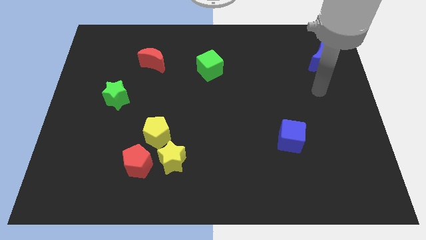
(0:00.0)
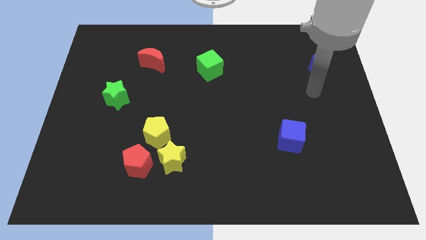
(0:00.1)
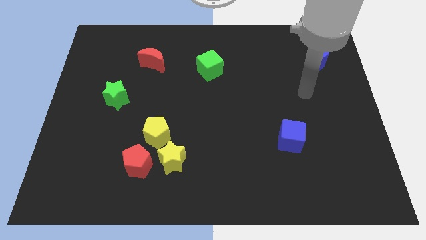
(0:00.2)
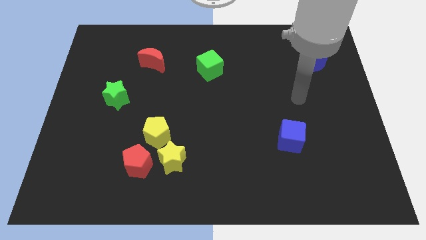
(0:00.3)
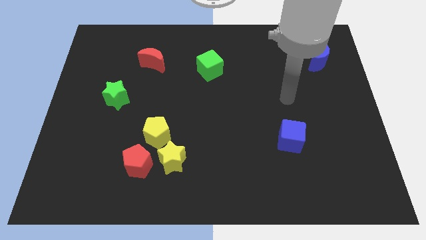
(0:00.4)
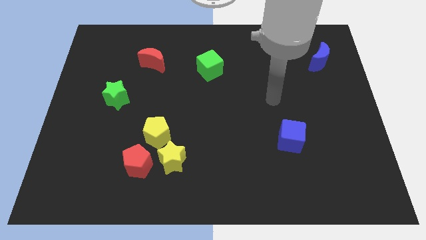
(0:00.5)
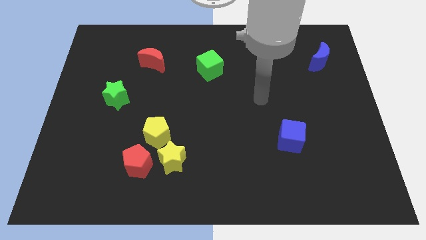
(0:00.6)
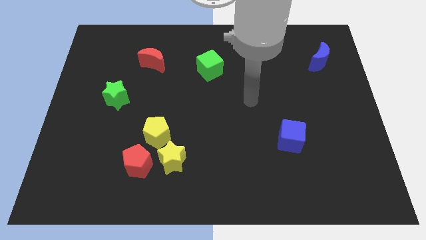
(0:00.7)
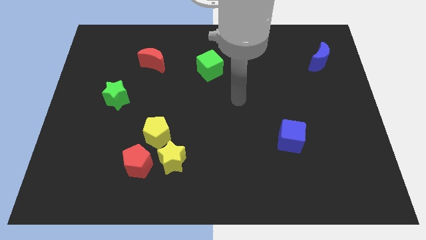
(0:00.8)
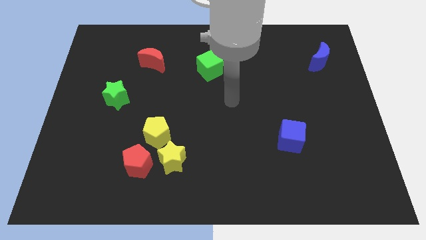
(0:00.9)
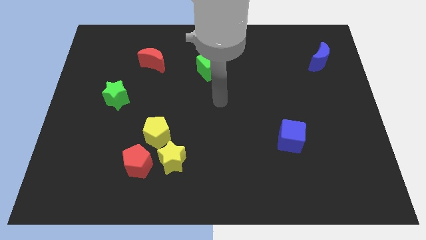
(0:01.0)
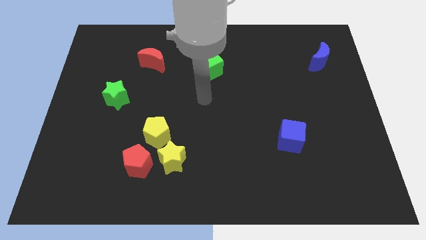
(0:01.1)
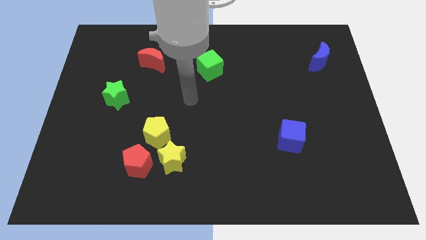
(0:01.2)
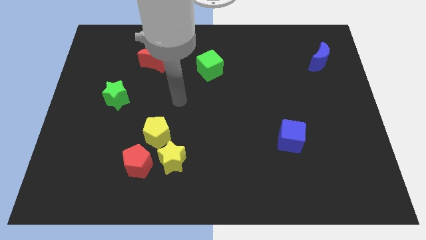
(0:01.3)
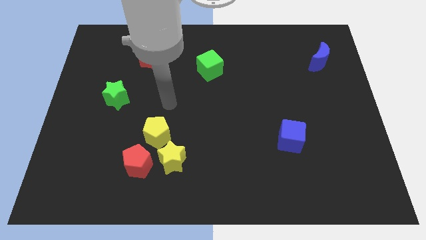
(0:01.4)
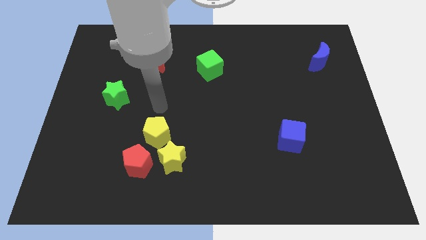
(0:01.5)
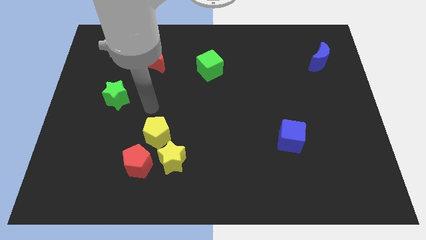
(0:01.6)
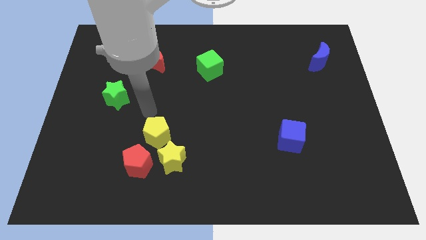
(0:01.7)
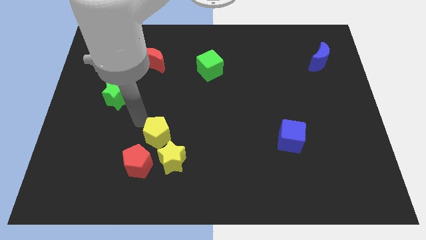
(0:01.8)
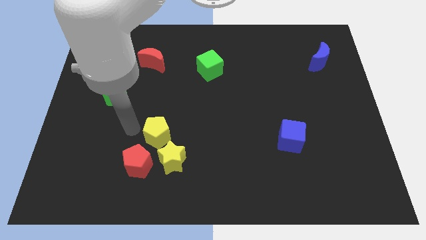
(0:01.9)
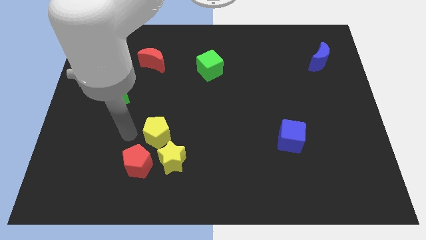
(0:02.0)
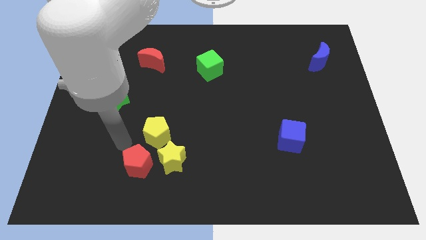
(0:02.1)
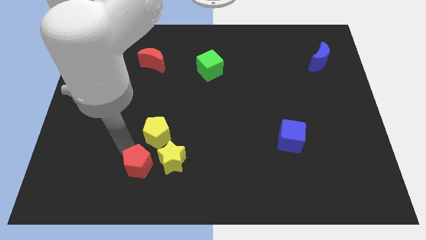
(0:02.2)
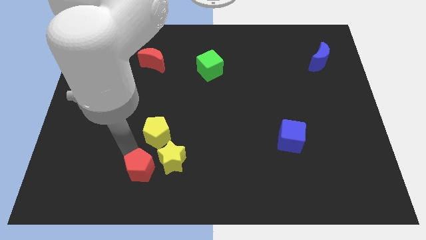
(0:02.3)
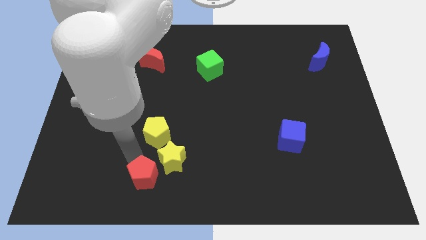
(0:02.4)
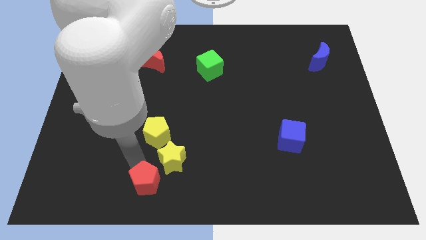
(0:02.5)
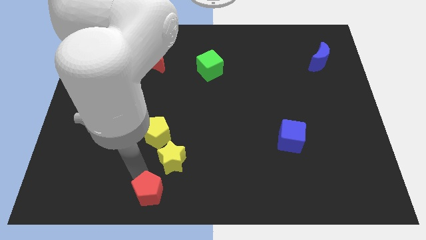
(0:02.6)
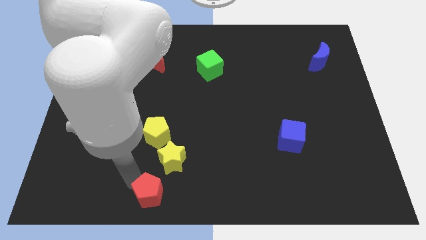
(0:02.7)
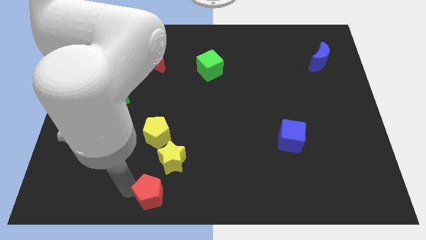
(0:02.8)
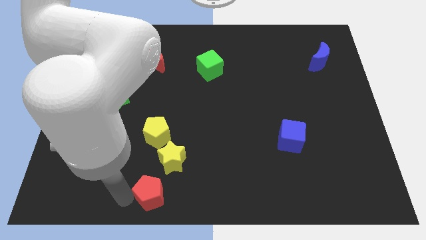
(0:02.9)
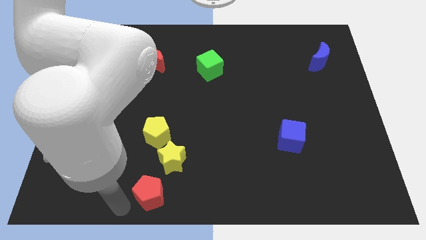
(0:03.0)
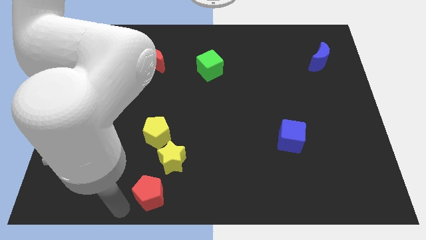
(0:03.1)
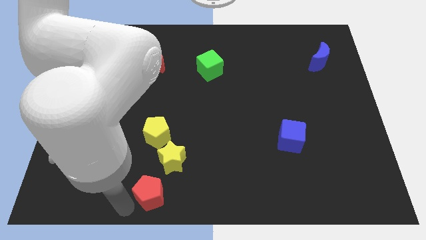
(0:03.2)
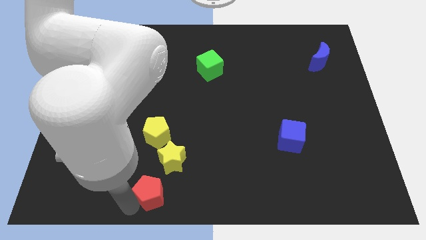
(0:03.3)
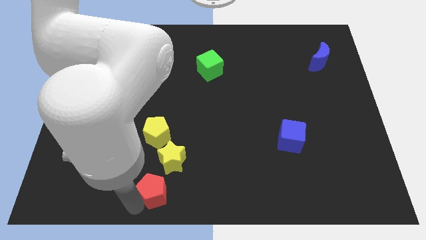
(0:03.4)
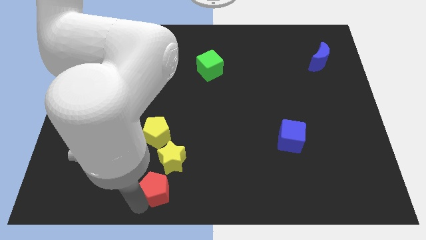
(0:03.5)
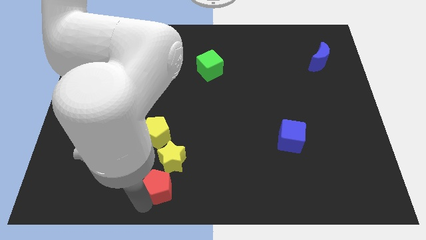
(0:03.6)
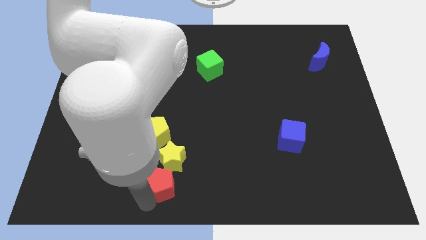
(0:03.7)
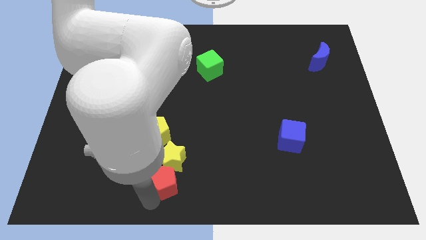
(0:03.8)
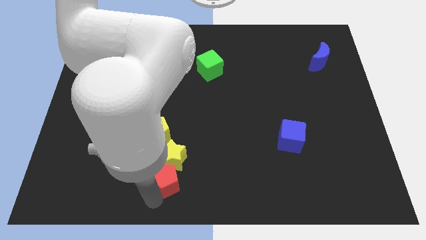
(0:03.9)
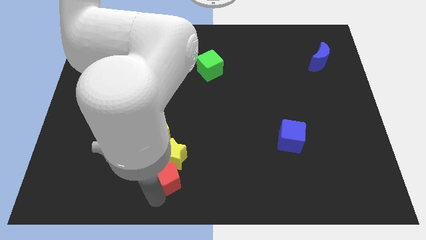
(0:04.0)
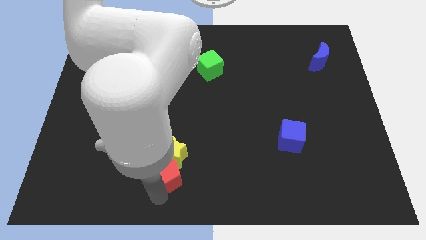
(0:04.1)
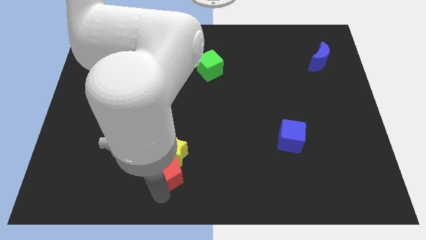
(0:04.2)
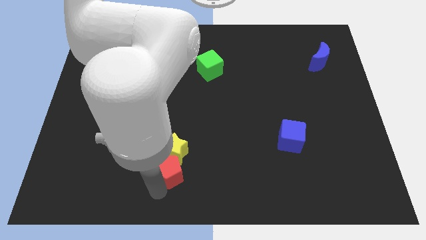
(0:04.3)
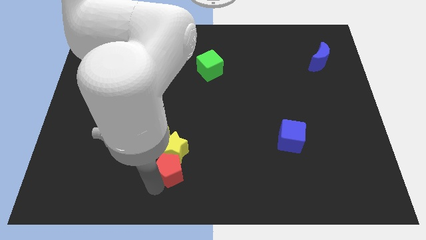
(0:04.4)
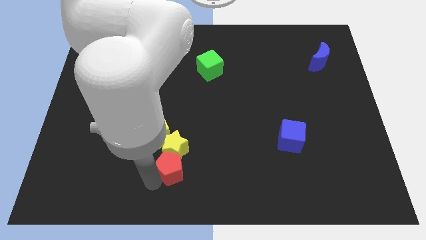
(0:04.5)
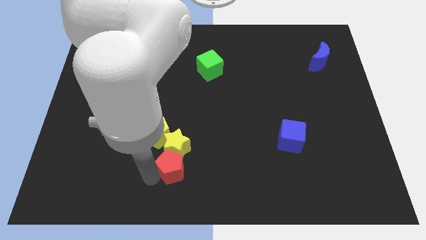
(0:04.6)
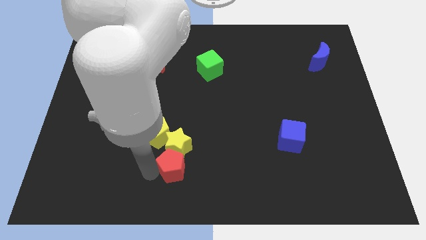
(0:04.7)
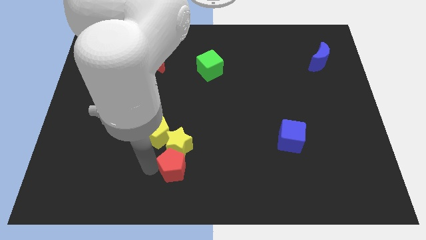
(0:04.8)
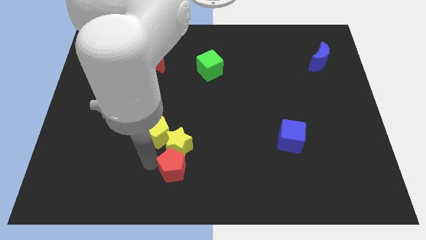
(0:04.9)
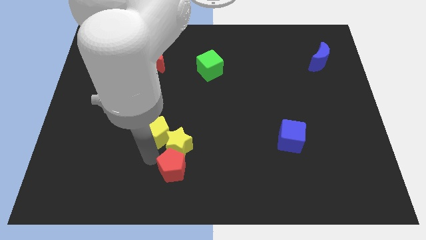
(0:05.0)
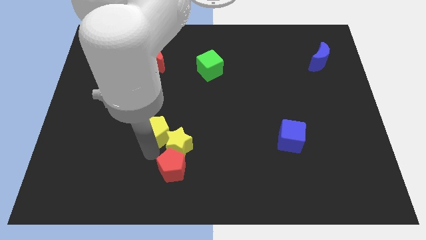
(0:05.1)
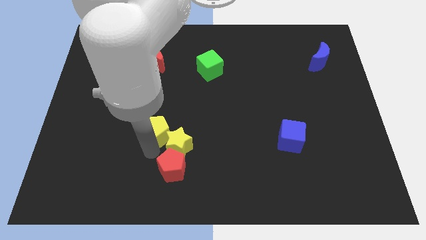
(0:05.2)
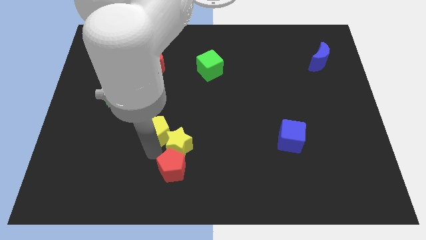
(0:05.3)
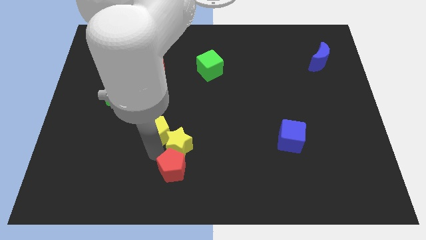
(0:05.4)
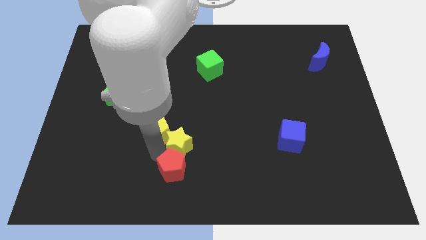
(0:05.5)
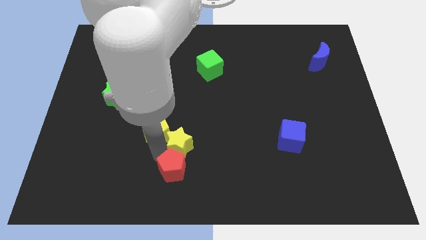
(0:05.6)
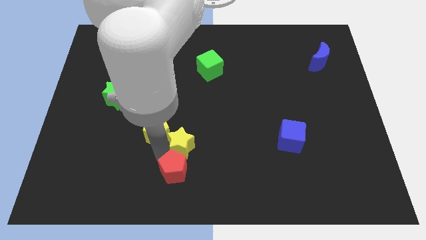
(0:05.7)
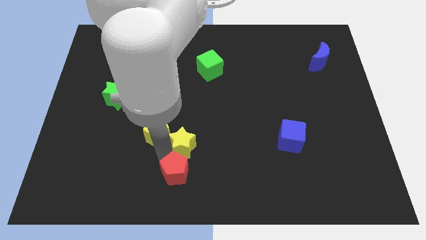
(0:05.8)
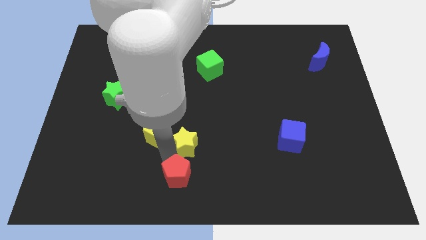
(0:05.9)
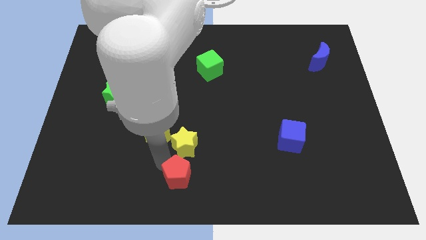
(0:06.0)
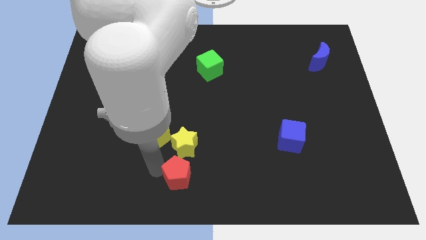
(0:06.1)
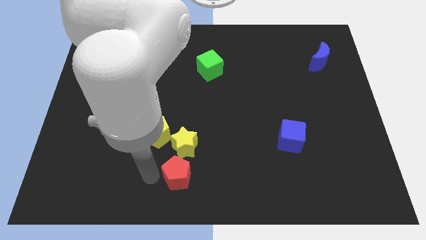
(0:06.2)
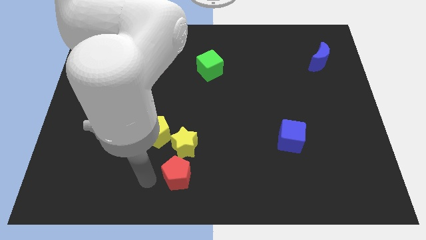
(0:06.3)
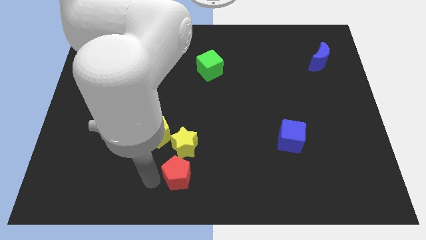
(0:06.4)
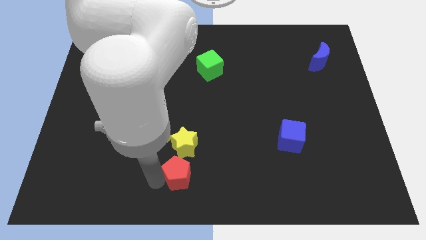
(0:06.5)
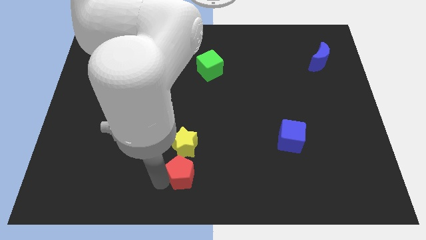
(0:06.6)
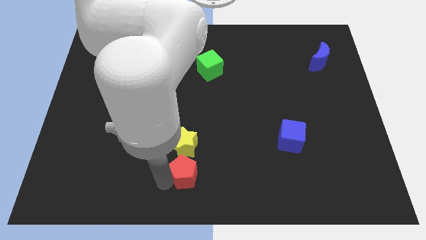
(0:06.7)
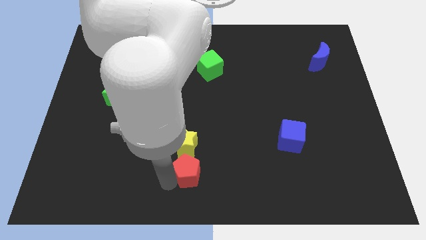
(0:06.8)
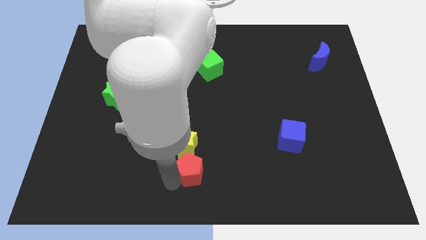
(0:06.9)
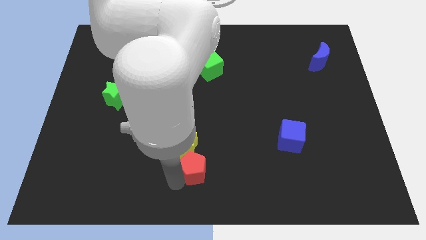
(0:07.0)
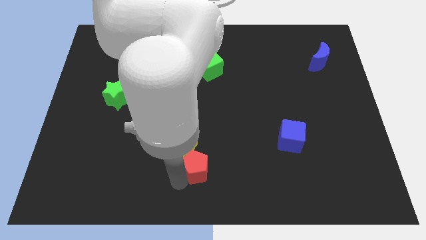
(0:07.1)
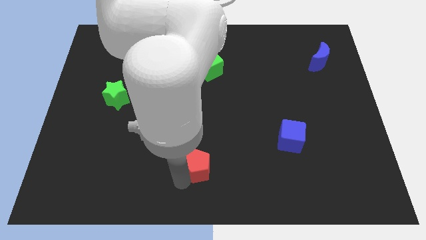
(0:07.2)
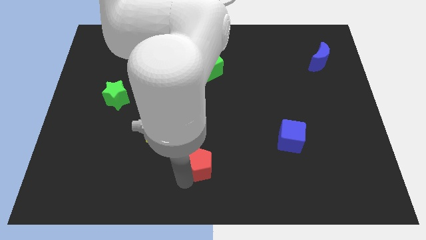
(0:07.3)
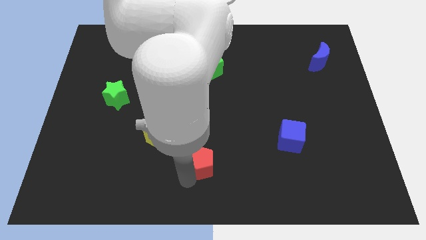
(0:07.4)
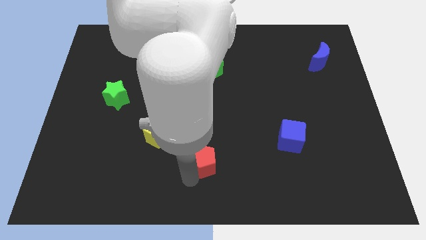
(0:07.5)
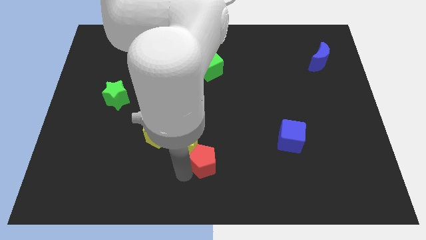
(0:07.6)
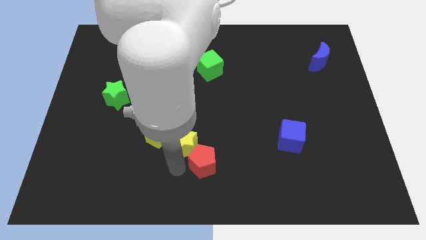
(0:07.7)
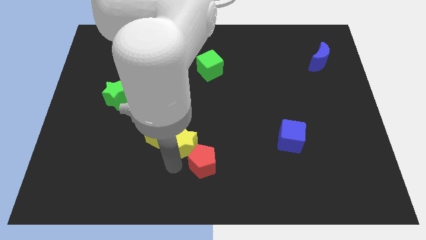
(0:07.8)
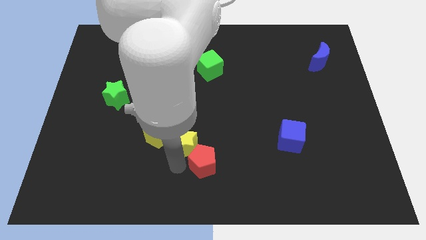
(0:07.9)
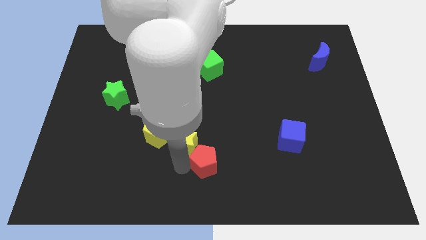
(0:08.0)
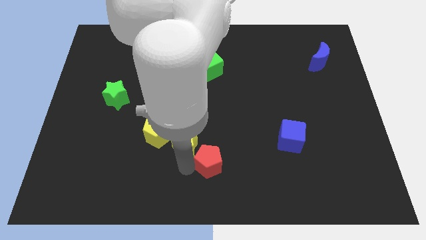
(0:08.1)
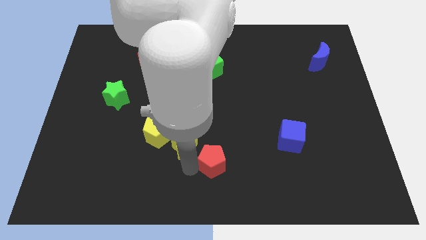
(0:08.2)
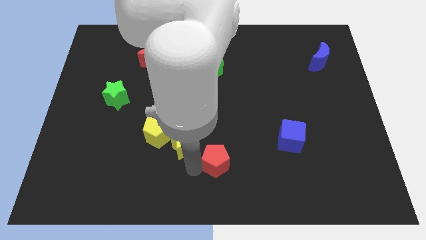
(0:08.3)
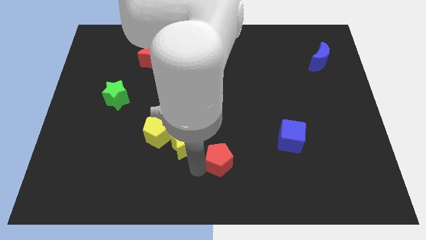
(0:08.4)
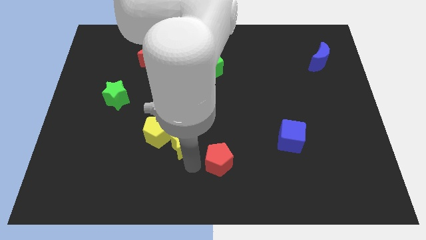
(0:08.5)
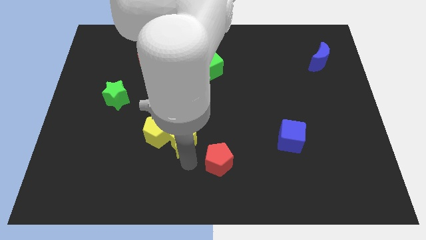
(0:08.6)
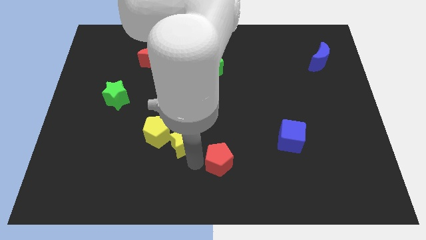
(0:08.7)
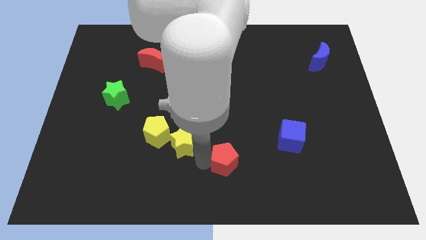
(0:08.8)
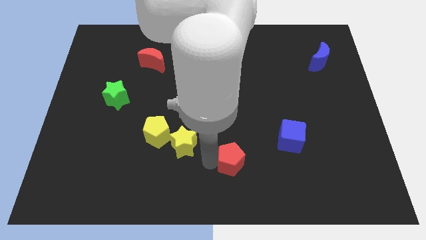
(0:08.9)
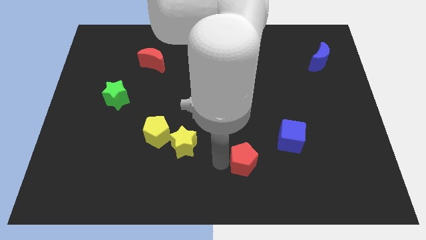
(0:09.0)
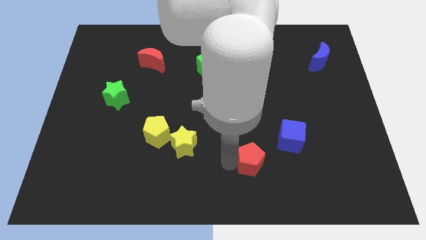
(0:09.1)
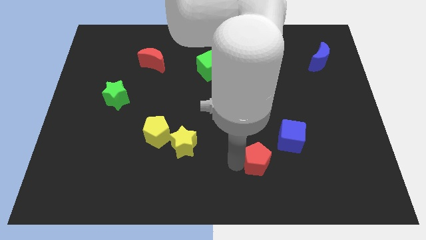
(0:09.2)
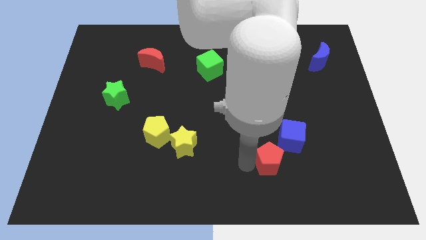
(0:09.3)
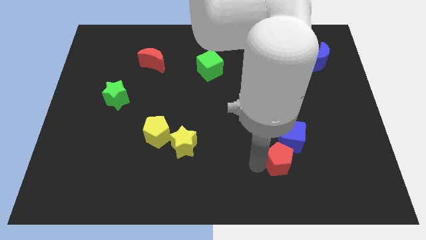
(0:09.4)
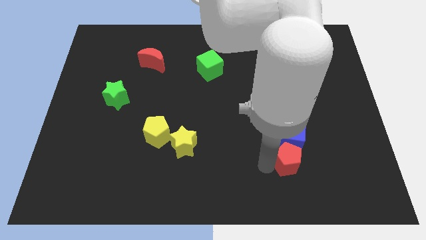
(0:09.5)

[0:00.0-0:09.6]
push the red pentagon towards the blue cube
